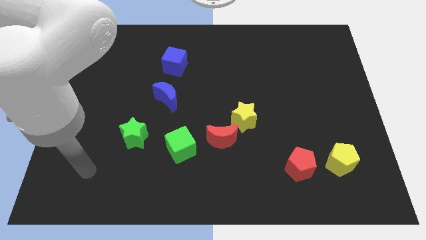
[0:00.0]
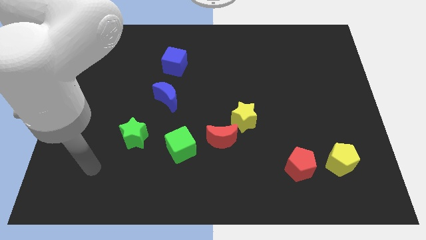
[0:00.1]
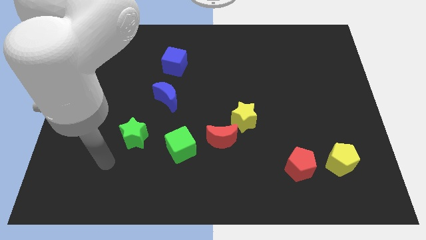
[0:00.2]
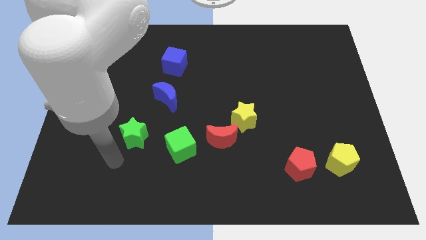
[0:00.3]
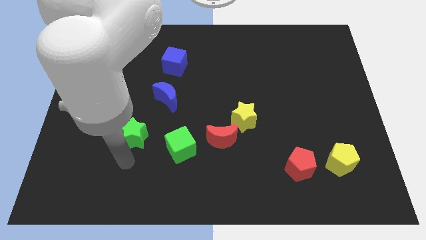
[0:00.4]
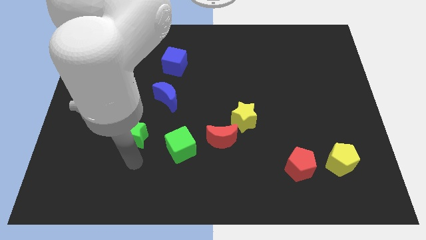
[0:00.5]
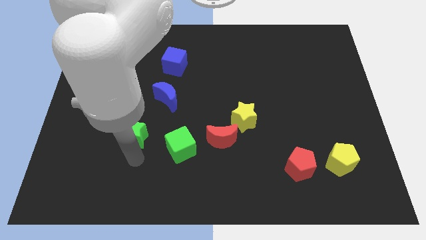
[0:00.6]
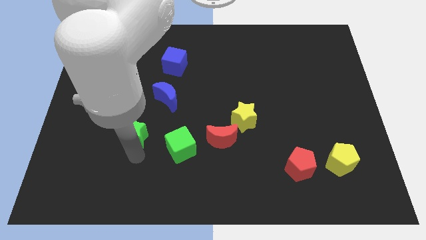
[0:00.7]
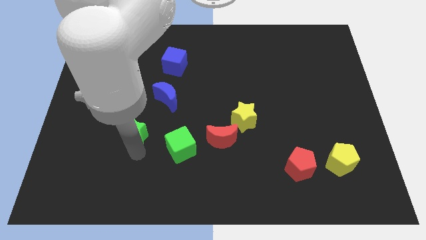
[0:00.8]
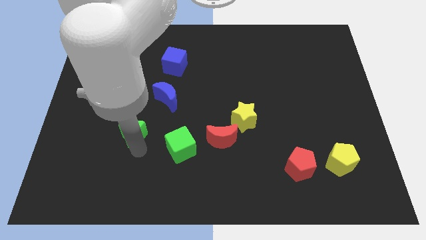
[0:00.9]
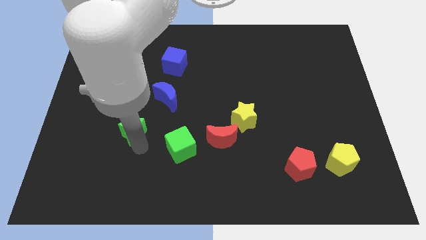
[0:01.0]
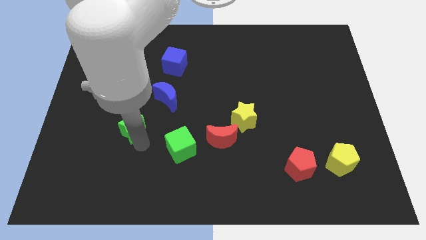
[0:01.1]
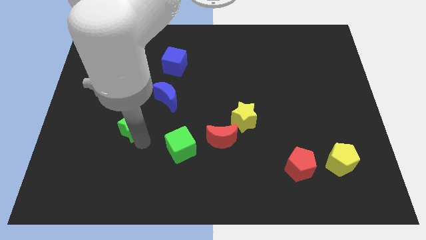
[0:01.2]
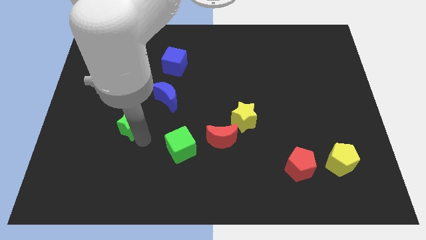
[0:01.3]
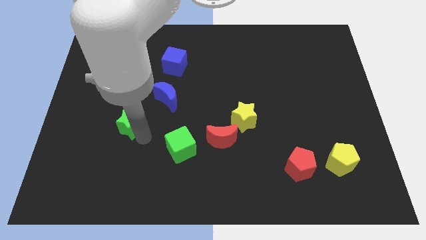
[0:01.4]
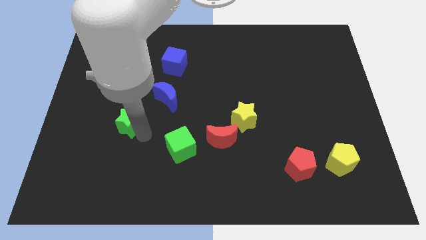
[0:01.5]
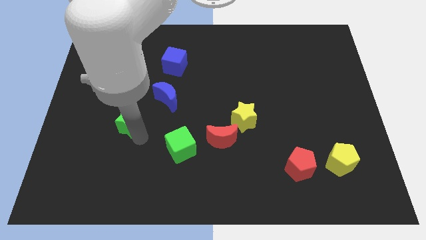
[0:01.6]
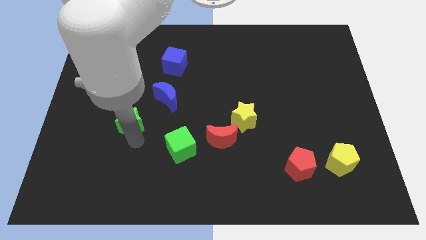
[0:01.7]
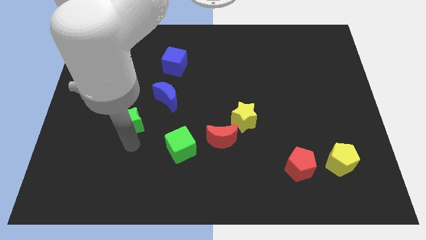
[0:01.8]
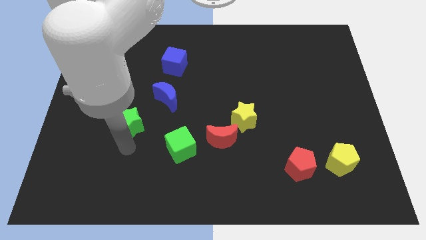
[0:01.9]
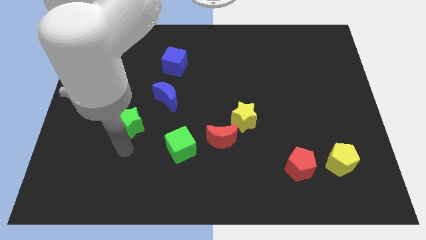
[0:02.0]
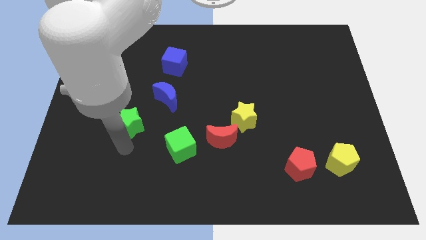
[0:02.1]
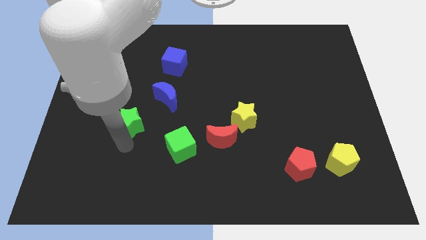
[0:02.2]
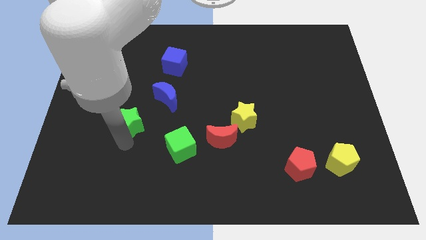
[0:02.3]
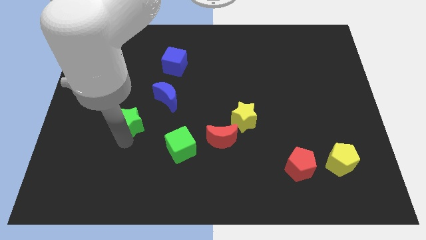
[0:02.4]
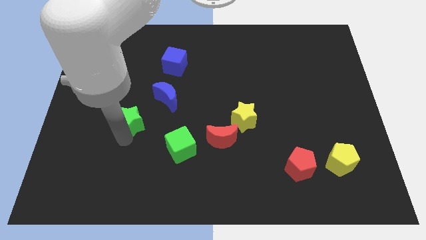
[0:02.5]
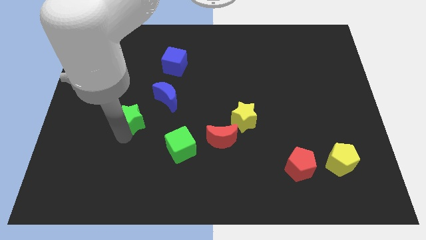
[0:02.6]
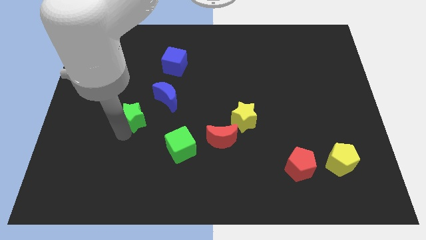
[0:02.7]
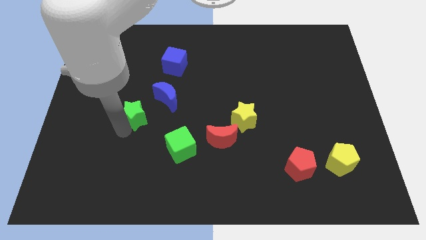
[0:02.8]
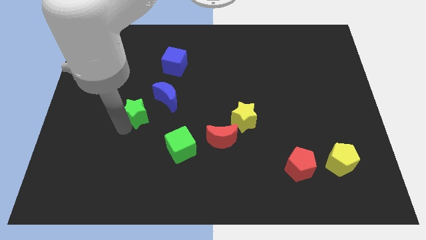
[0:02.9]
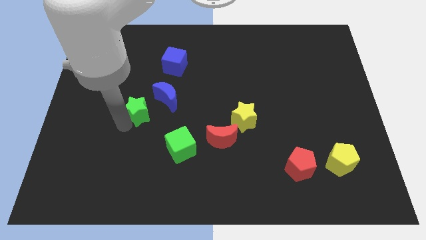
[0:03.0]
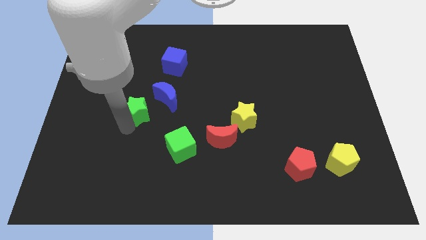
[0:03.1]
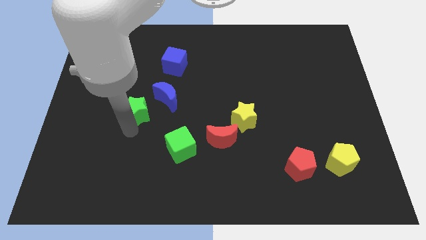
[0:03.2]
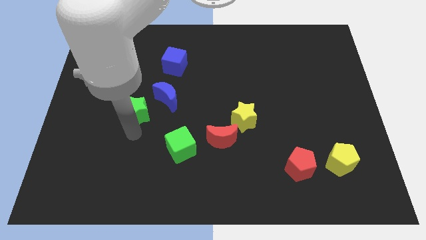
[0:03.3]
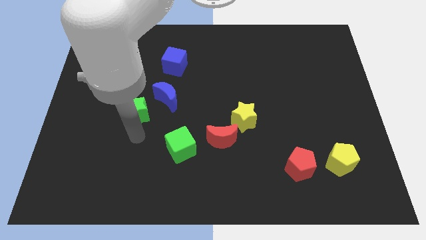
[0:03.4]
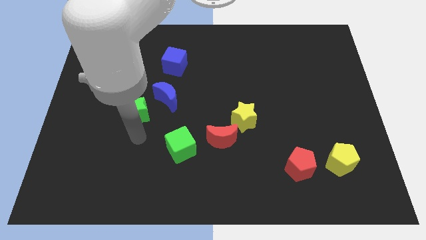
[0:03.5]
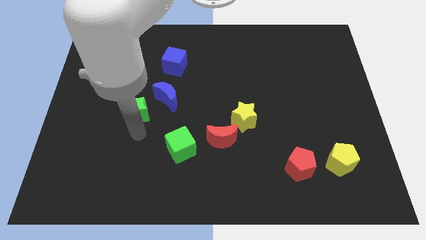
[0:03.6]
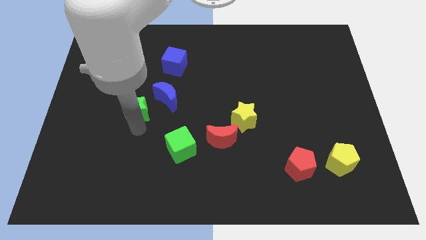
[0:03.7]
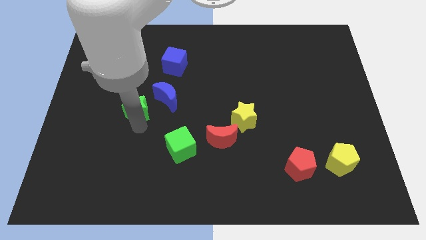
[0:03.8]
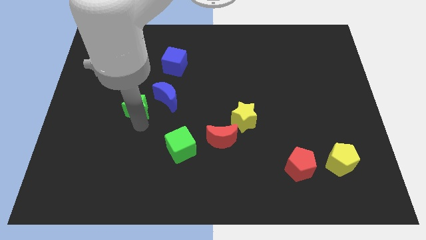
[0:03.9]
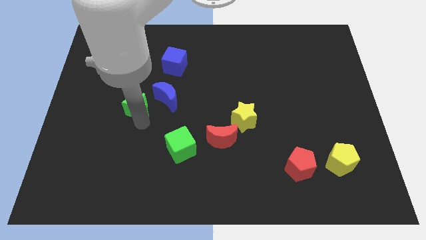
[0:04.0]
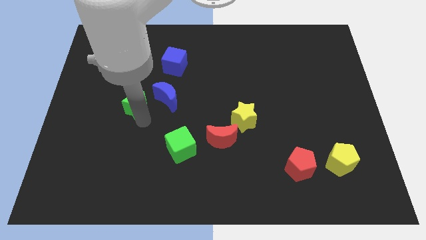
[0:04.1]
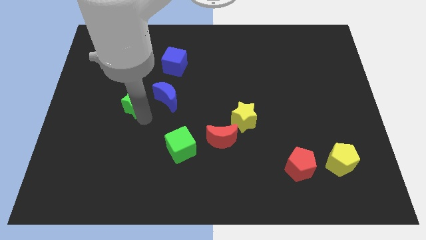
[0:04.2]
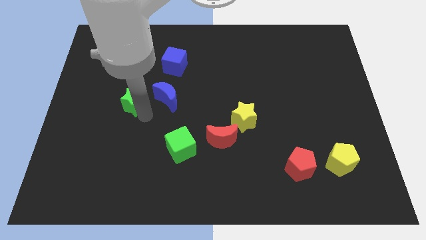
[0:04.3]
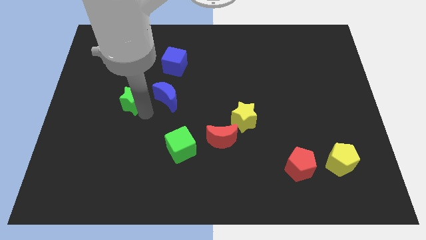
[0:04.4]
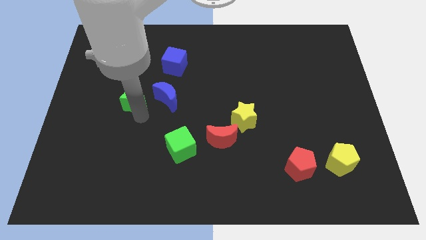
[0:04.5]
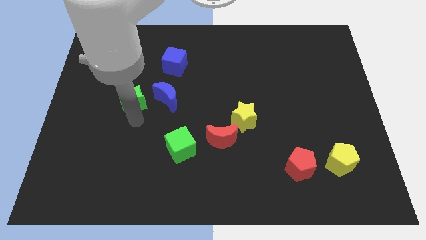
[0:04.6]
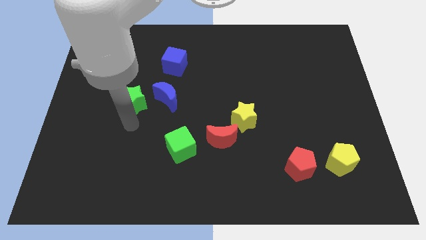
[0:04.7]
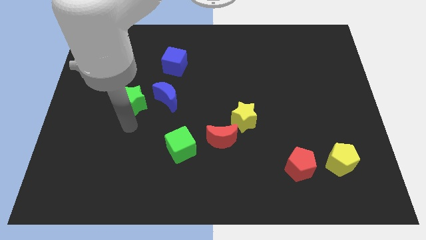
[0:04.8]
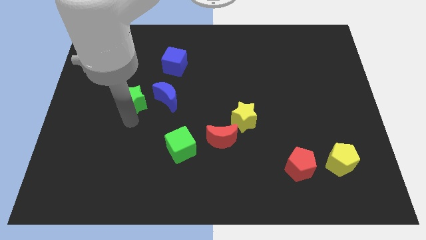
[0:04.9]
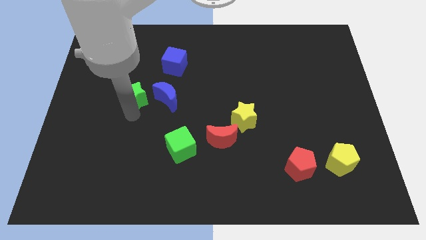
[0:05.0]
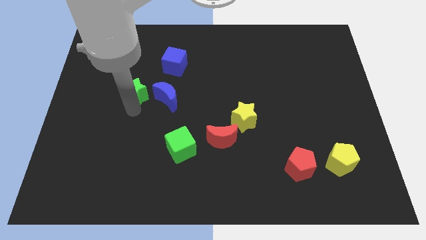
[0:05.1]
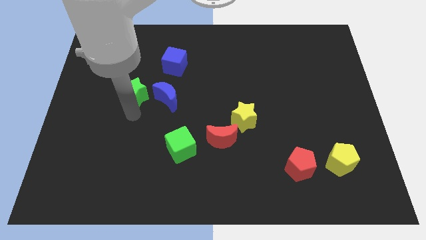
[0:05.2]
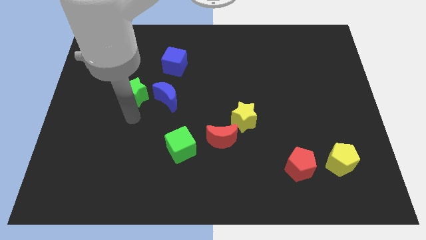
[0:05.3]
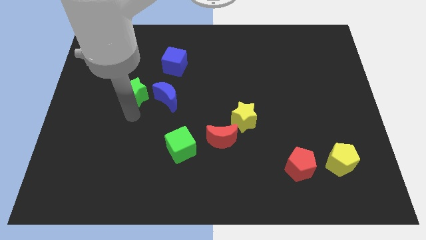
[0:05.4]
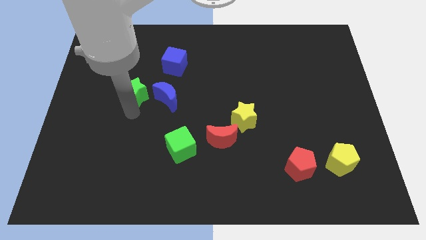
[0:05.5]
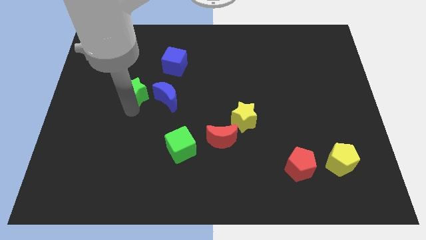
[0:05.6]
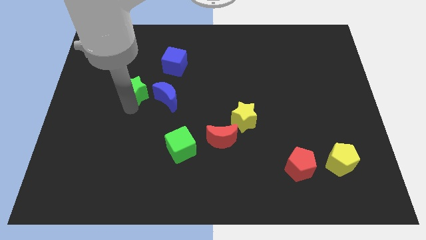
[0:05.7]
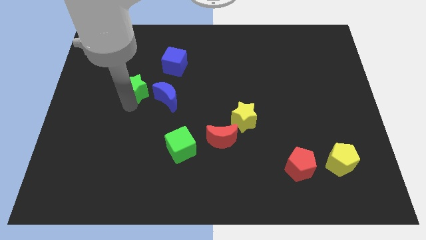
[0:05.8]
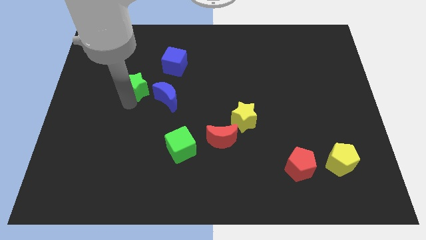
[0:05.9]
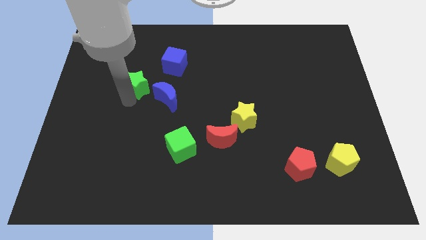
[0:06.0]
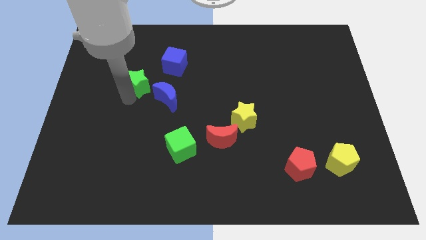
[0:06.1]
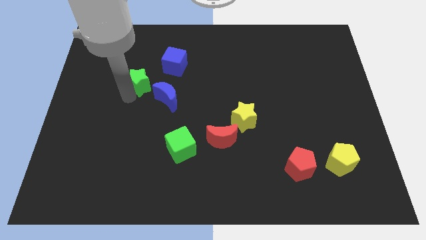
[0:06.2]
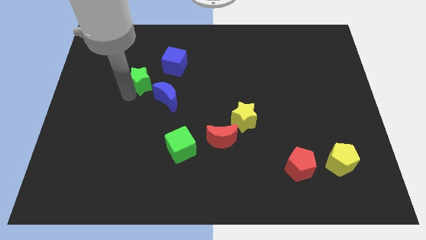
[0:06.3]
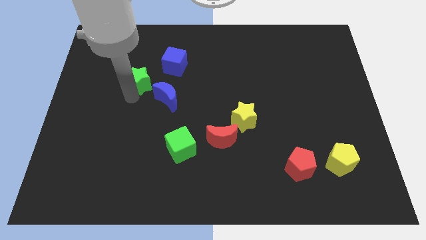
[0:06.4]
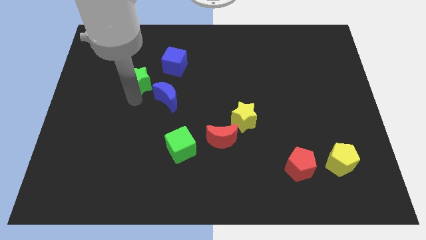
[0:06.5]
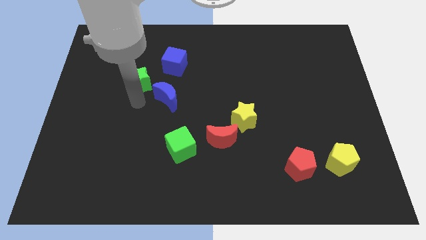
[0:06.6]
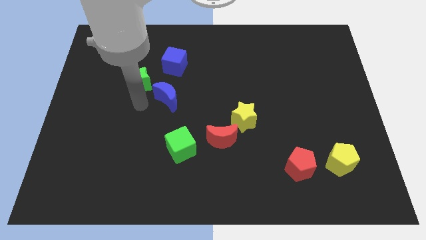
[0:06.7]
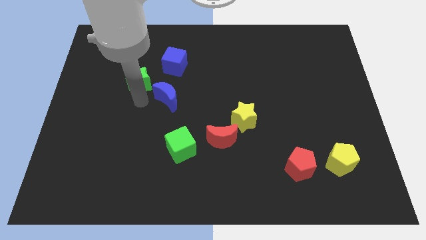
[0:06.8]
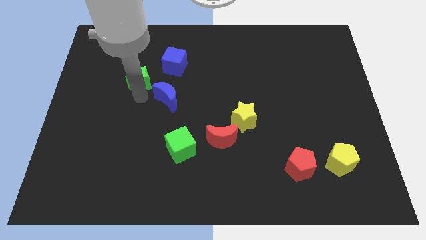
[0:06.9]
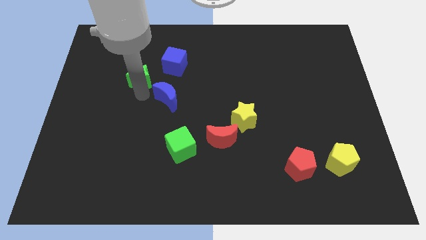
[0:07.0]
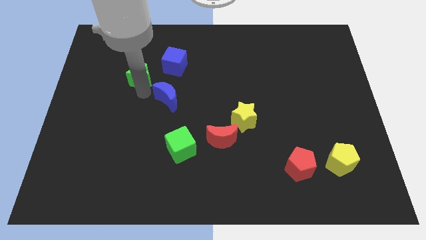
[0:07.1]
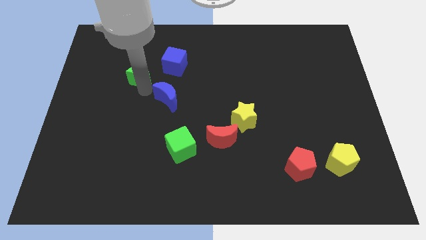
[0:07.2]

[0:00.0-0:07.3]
move the green star left of the blue cube

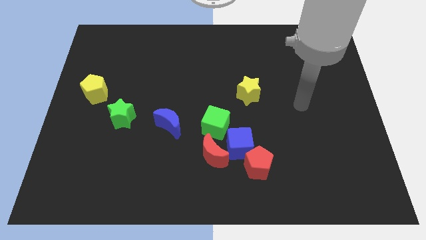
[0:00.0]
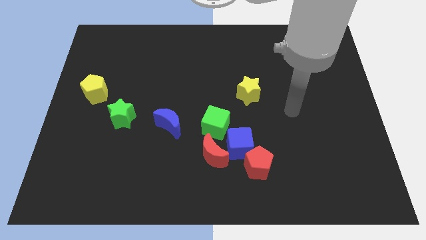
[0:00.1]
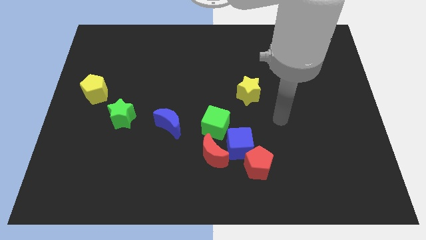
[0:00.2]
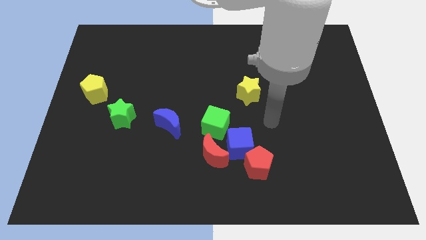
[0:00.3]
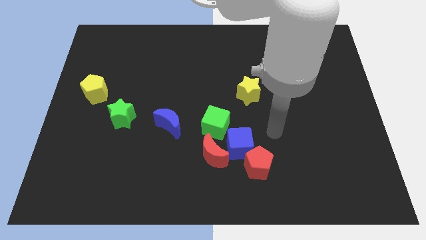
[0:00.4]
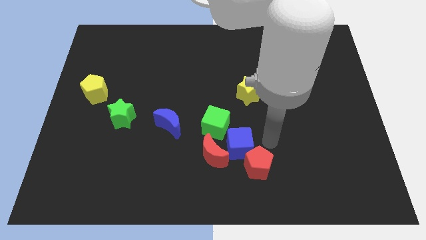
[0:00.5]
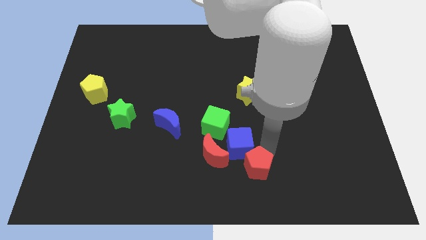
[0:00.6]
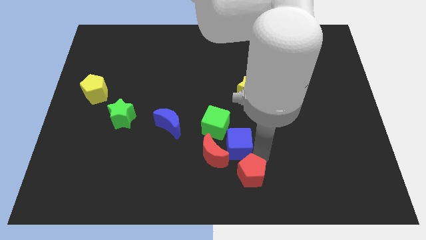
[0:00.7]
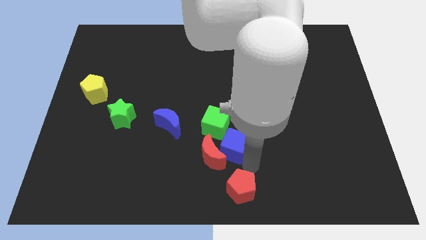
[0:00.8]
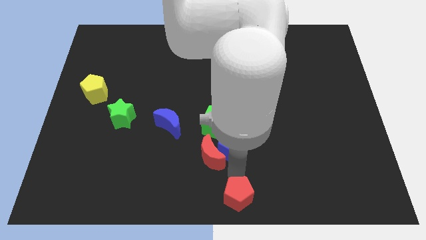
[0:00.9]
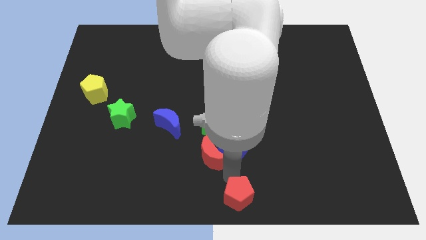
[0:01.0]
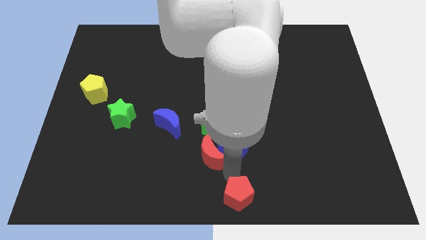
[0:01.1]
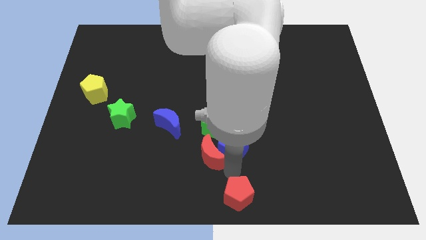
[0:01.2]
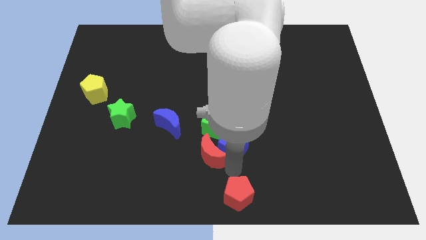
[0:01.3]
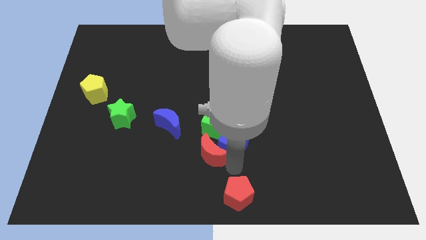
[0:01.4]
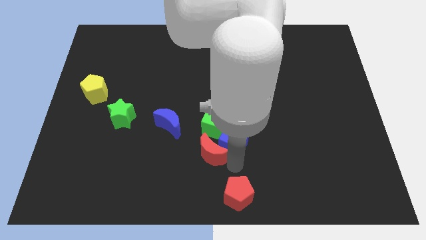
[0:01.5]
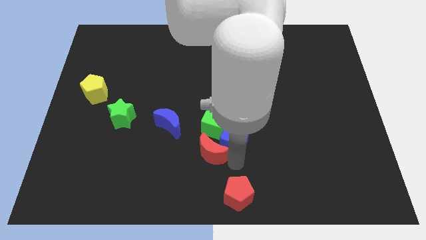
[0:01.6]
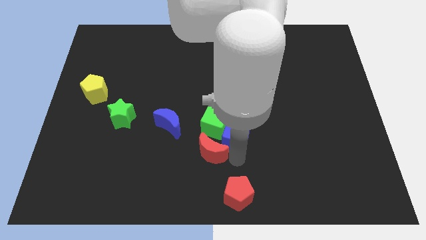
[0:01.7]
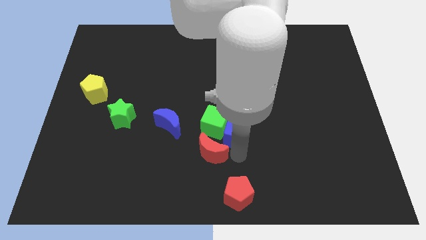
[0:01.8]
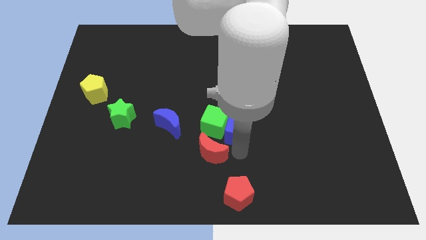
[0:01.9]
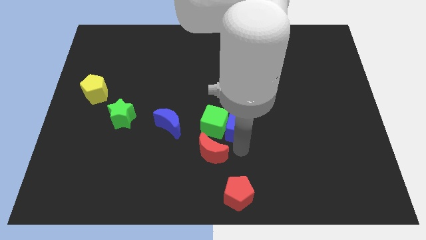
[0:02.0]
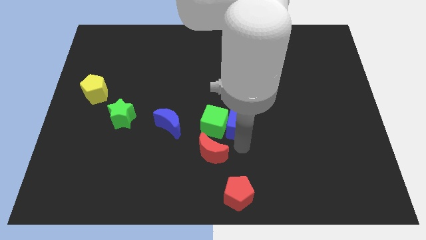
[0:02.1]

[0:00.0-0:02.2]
slide the blue cube to the bottom left side of the yellow star
